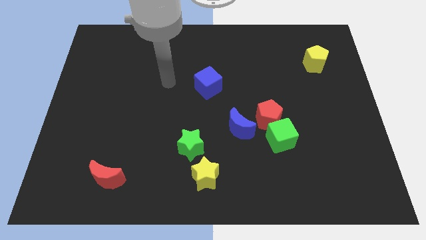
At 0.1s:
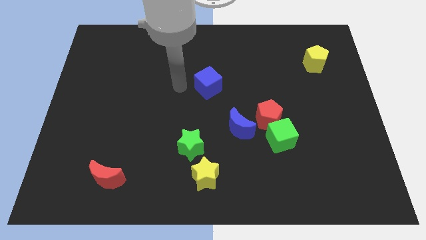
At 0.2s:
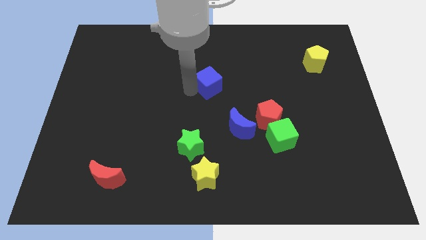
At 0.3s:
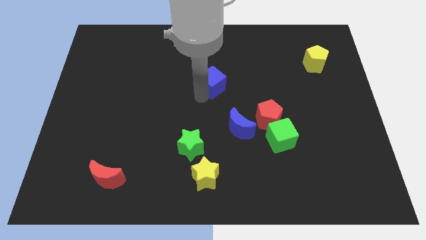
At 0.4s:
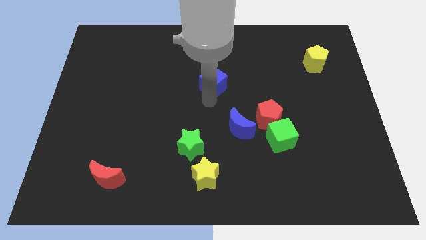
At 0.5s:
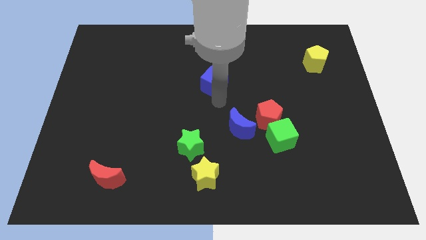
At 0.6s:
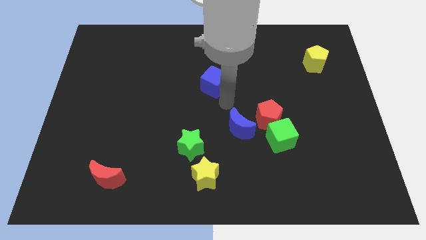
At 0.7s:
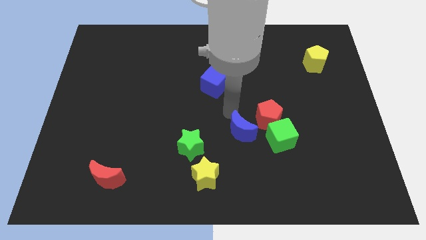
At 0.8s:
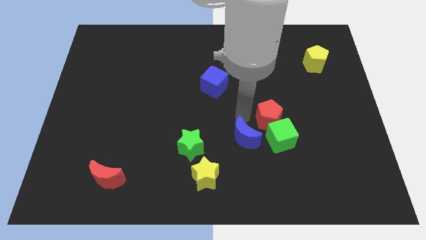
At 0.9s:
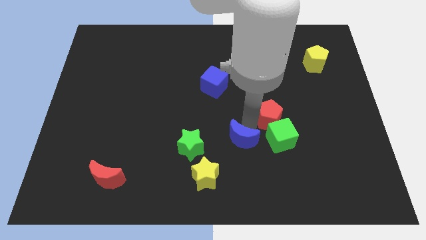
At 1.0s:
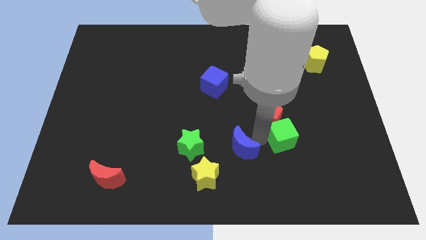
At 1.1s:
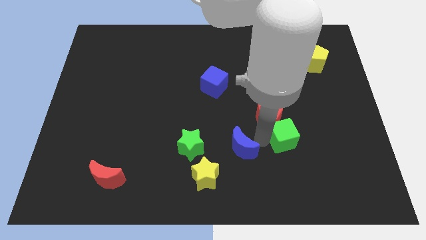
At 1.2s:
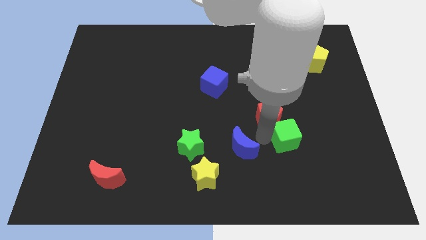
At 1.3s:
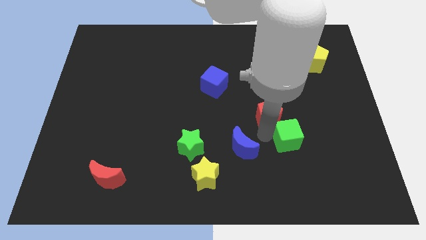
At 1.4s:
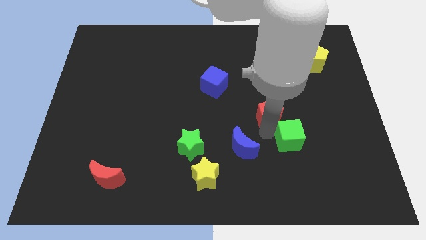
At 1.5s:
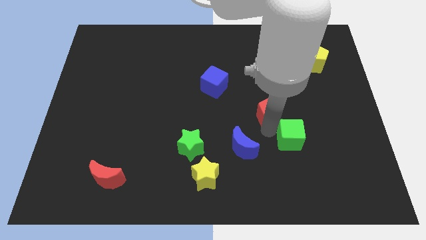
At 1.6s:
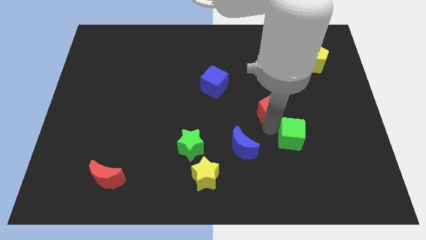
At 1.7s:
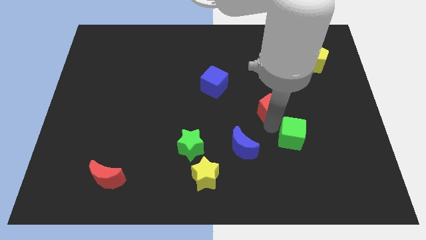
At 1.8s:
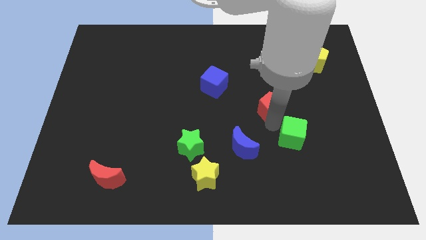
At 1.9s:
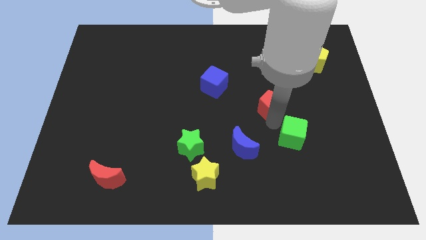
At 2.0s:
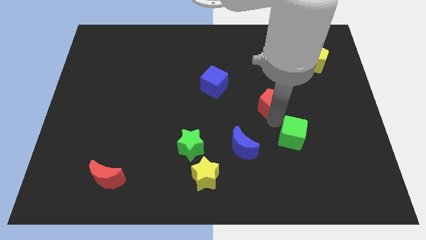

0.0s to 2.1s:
pull the red pentagon apart from the green cube and blue moon

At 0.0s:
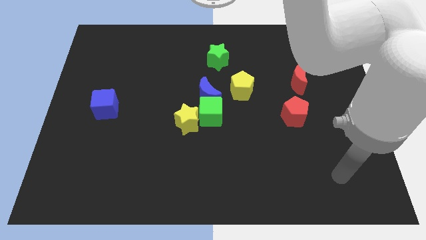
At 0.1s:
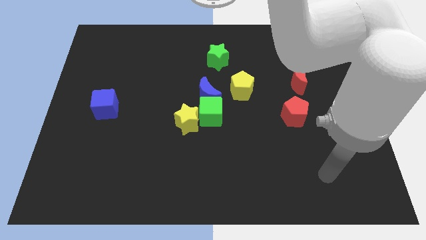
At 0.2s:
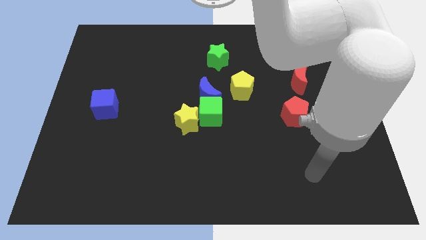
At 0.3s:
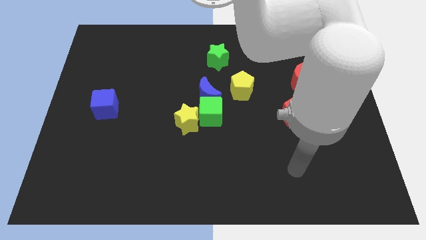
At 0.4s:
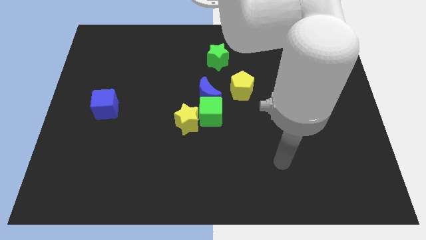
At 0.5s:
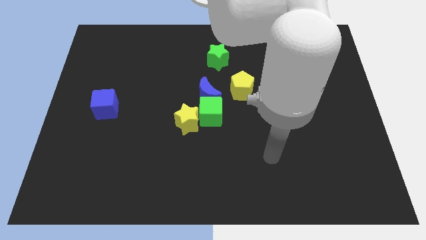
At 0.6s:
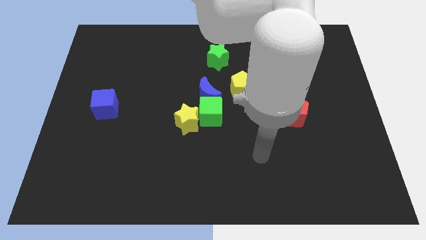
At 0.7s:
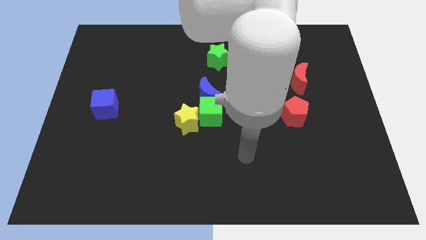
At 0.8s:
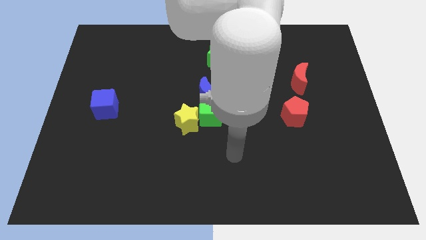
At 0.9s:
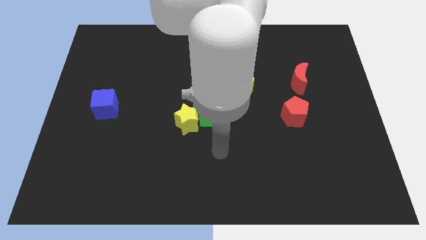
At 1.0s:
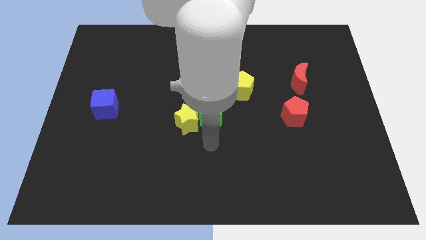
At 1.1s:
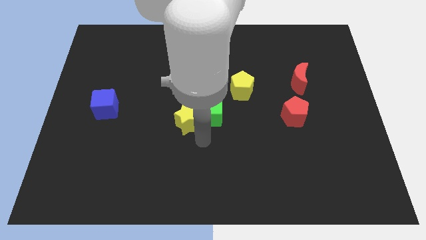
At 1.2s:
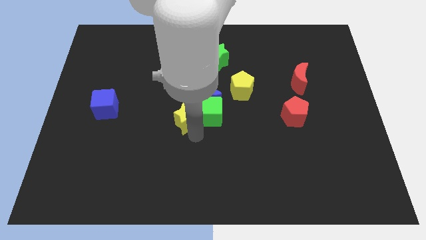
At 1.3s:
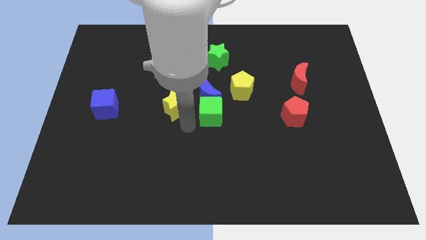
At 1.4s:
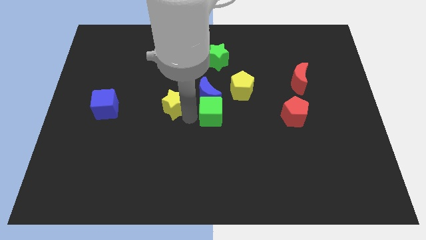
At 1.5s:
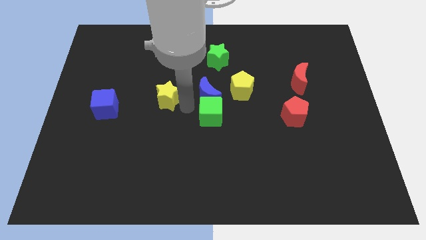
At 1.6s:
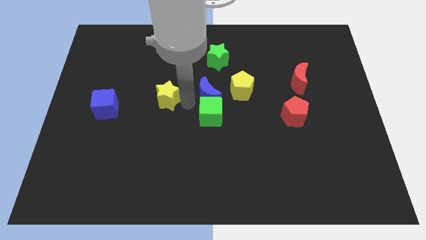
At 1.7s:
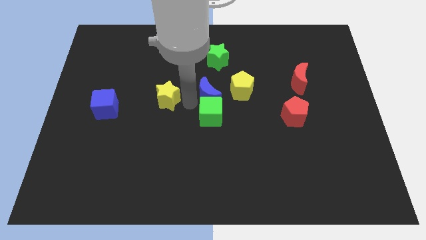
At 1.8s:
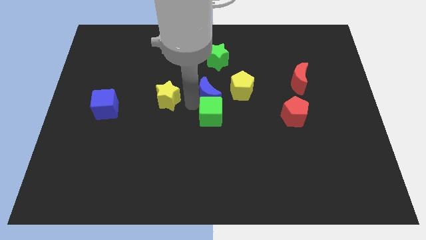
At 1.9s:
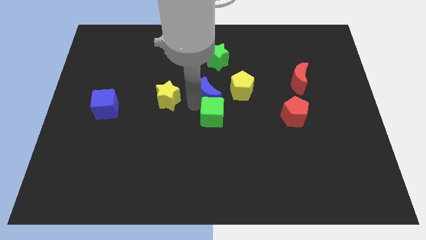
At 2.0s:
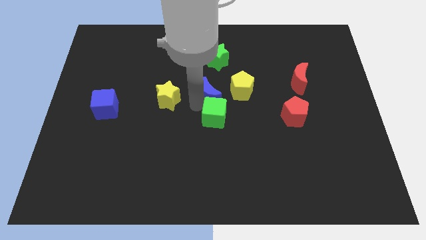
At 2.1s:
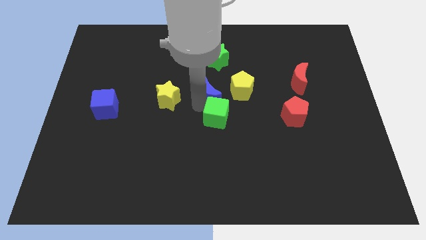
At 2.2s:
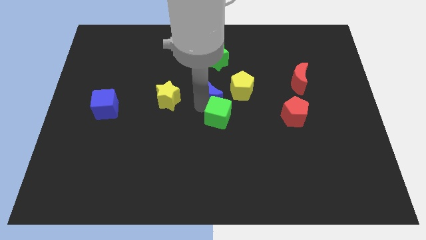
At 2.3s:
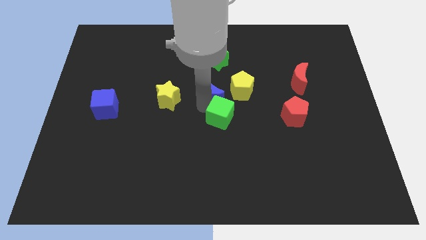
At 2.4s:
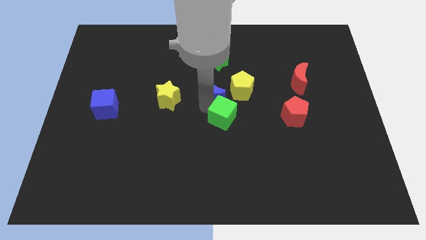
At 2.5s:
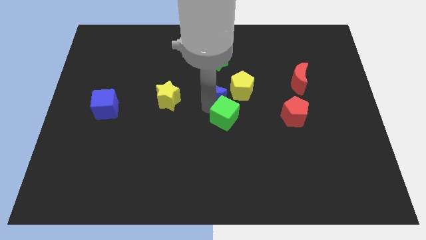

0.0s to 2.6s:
pull the green cube apart from the blue moon and yellow star

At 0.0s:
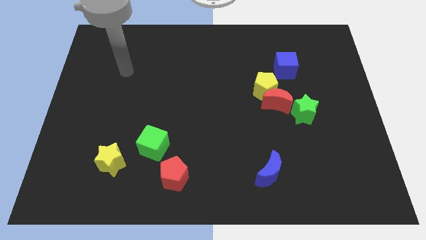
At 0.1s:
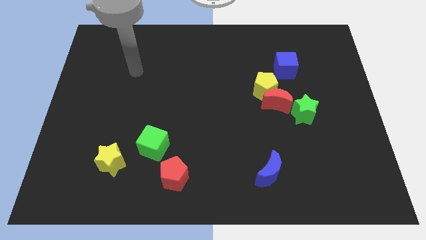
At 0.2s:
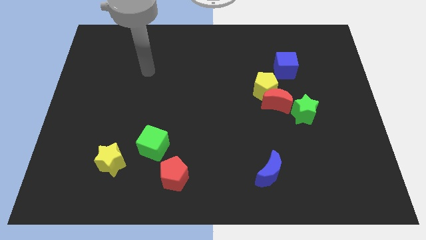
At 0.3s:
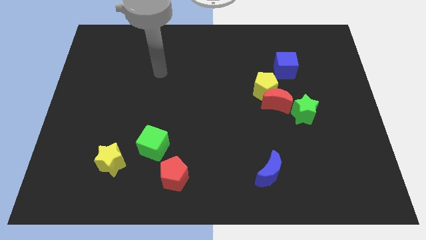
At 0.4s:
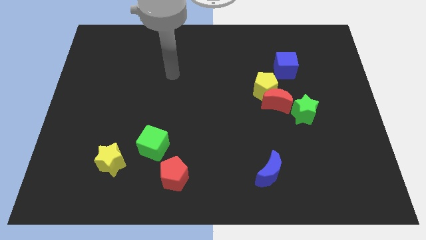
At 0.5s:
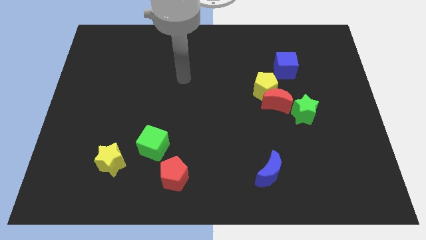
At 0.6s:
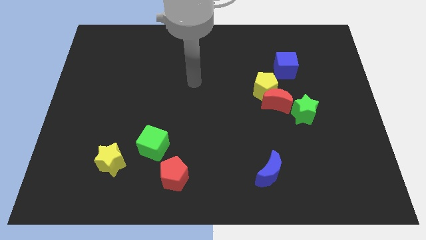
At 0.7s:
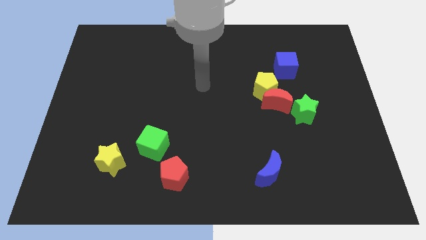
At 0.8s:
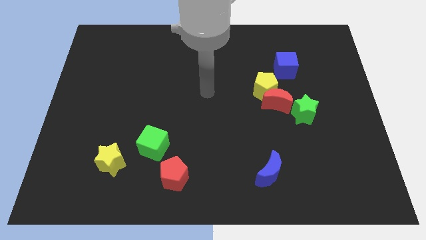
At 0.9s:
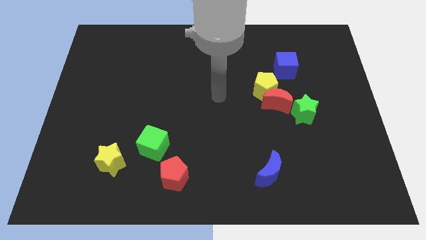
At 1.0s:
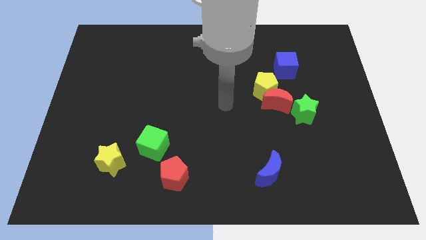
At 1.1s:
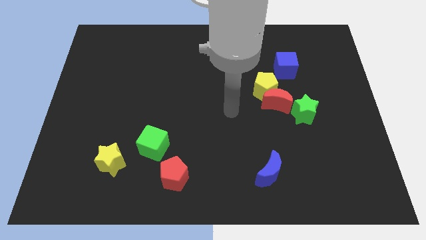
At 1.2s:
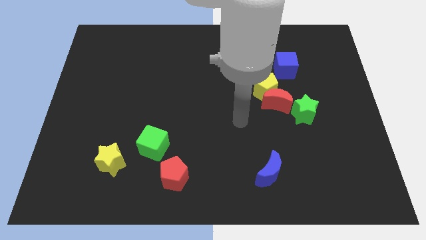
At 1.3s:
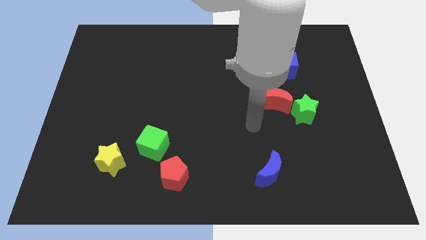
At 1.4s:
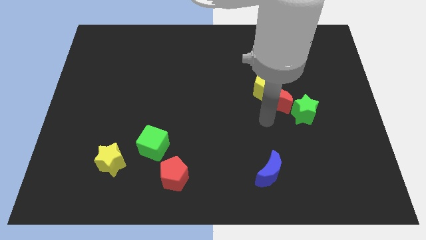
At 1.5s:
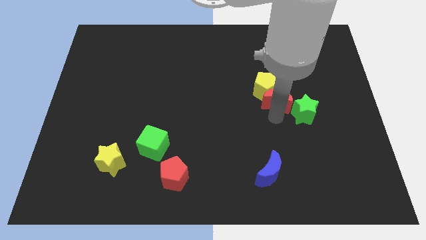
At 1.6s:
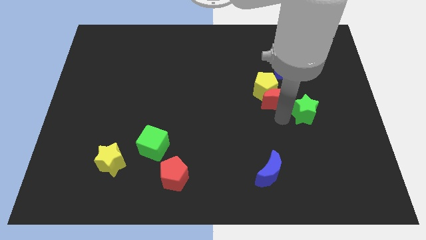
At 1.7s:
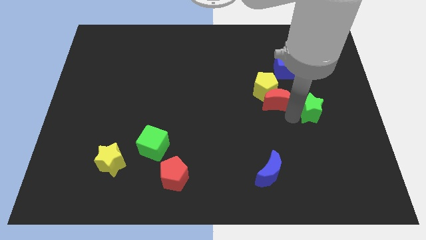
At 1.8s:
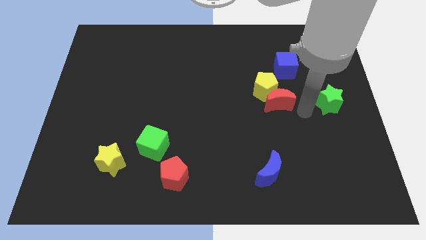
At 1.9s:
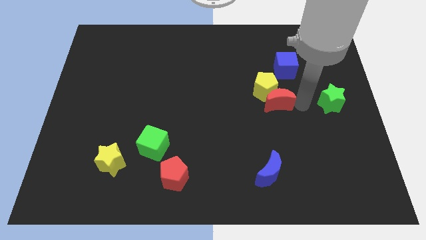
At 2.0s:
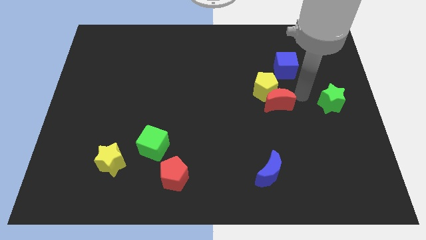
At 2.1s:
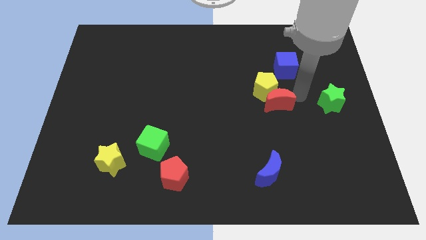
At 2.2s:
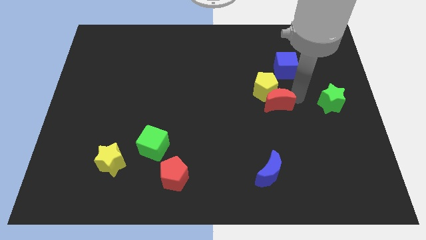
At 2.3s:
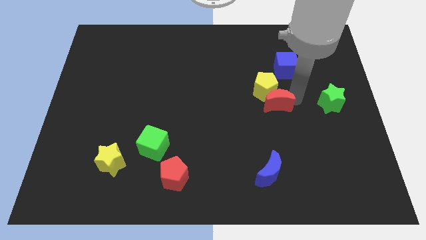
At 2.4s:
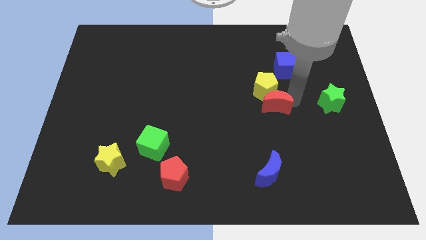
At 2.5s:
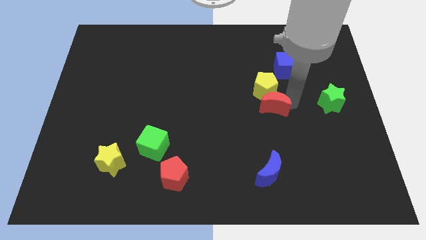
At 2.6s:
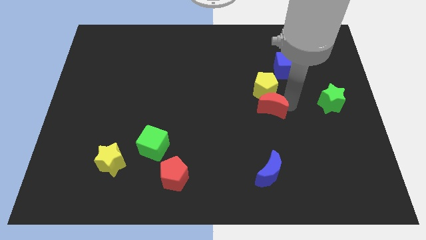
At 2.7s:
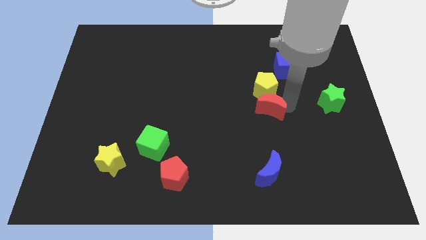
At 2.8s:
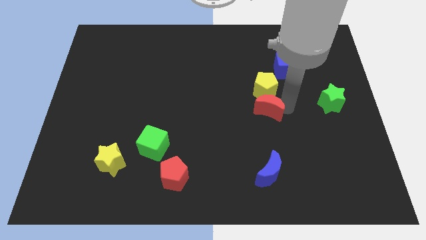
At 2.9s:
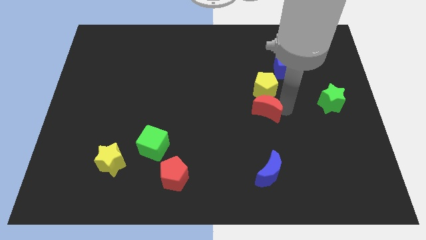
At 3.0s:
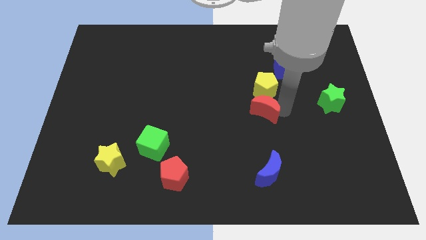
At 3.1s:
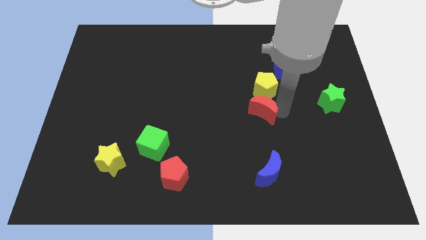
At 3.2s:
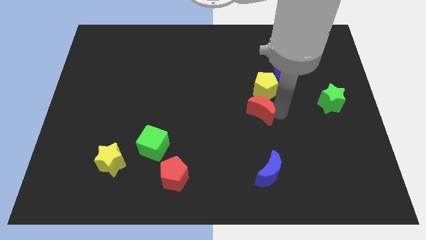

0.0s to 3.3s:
move the red moon away from the yellow pentagon and green star

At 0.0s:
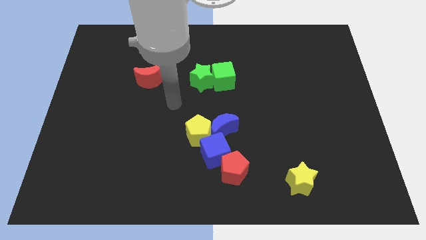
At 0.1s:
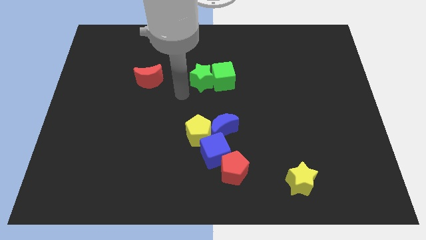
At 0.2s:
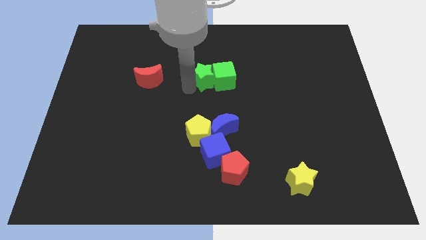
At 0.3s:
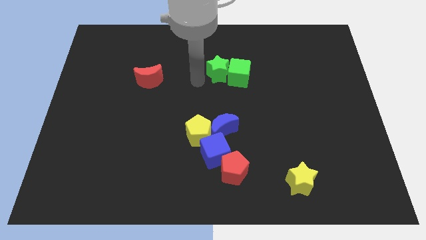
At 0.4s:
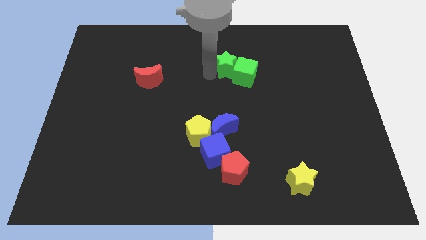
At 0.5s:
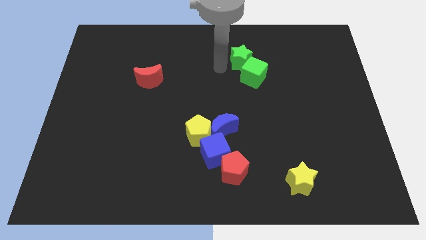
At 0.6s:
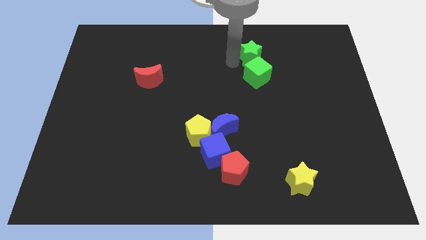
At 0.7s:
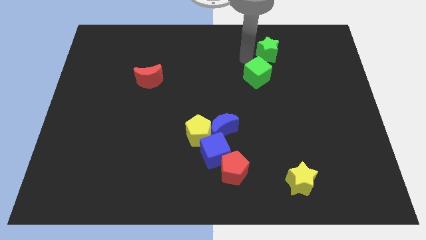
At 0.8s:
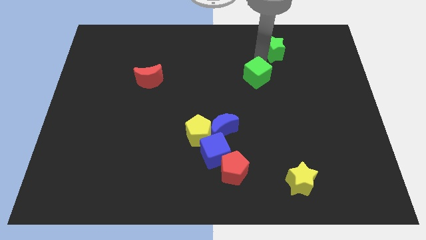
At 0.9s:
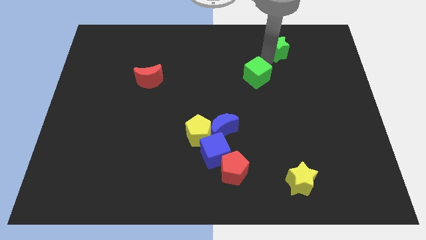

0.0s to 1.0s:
move the green cube away from the green star

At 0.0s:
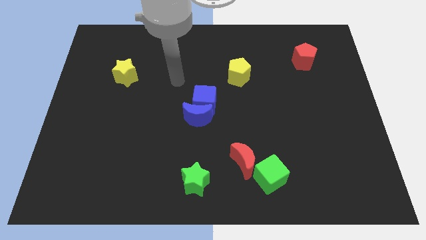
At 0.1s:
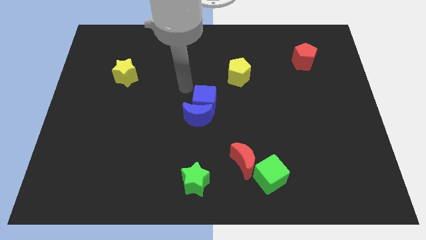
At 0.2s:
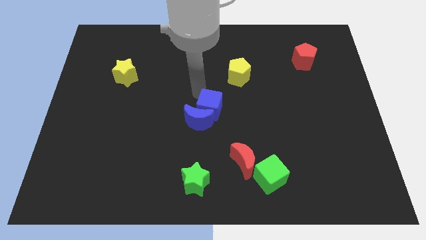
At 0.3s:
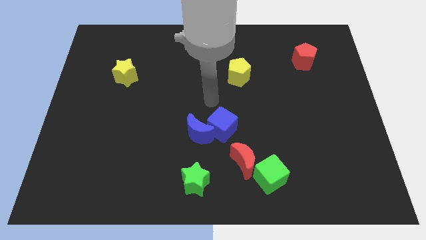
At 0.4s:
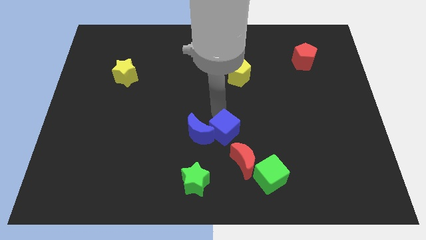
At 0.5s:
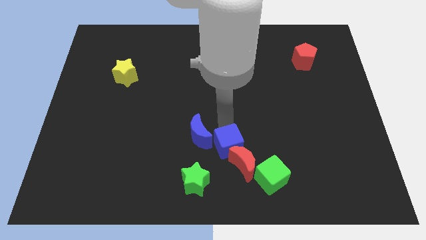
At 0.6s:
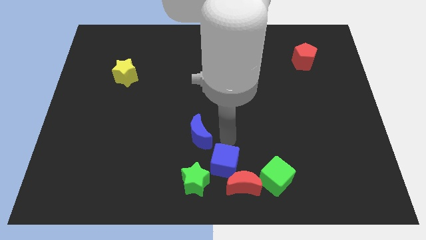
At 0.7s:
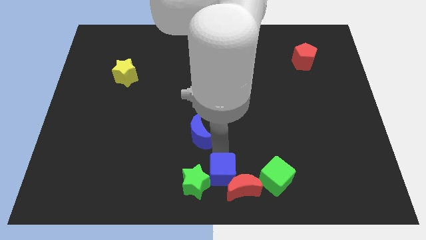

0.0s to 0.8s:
move the blue moon away from the blue cube
